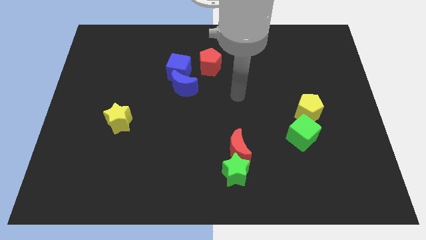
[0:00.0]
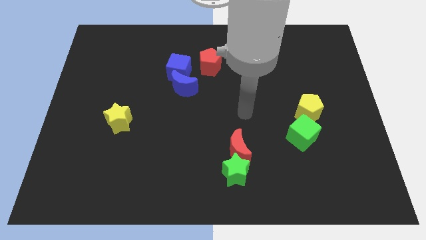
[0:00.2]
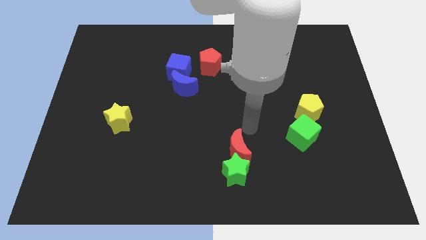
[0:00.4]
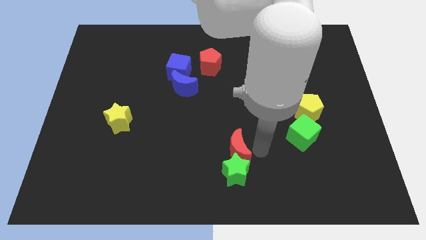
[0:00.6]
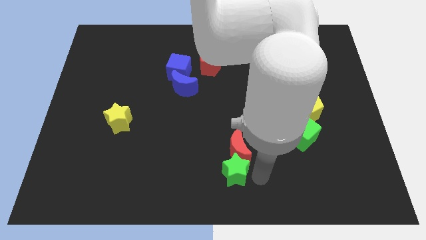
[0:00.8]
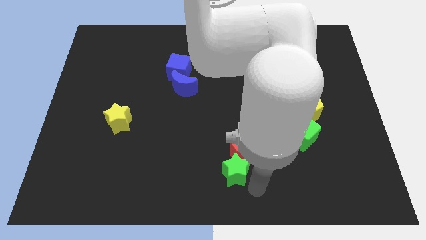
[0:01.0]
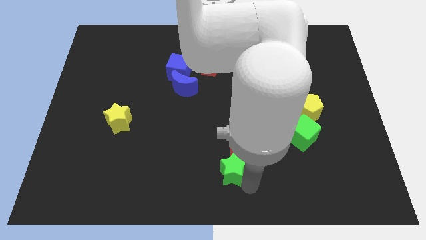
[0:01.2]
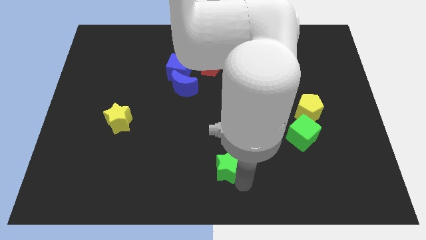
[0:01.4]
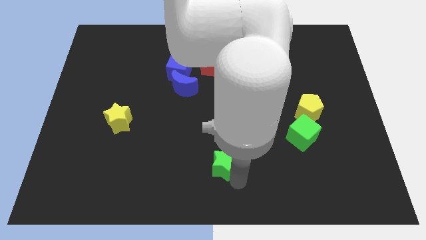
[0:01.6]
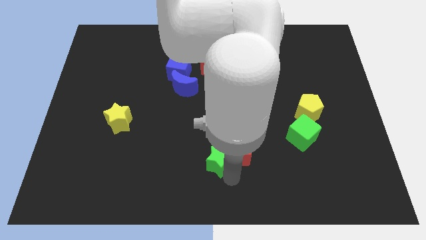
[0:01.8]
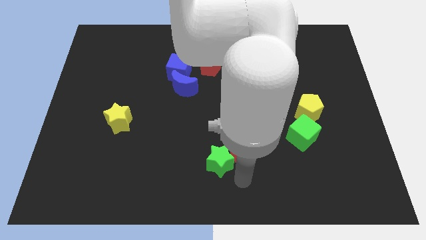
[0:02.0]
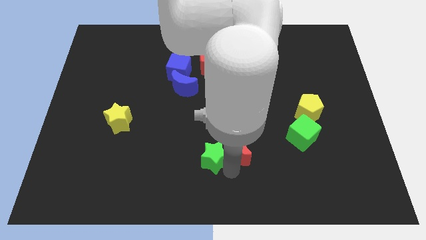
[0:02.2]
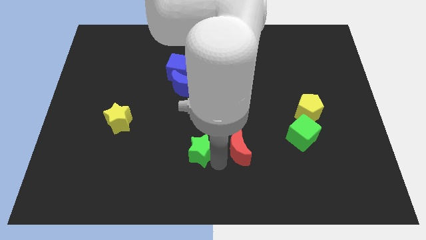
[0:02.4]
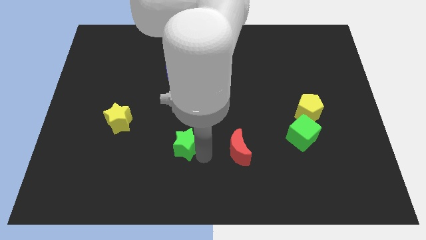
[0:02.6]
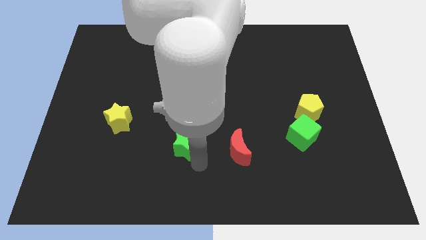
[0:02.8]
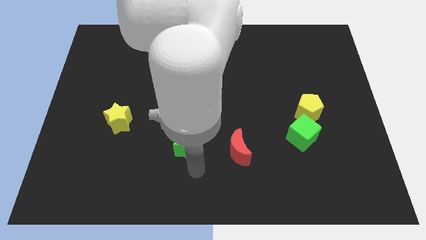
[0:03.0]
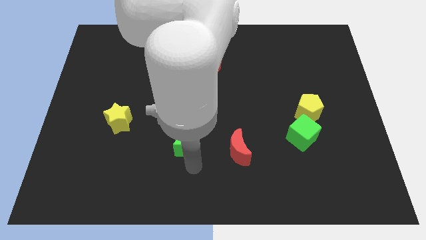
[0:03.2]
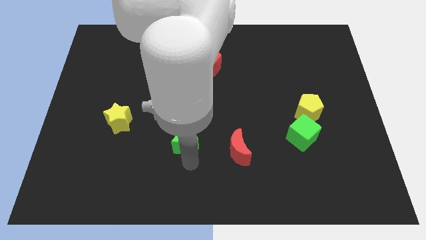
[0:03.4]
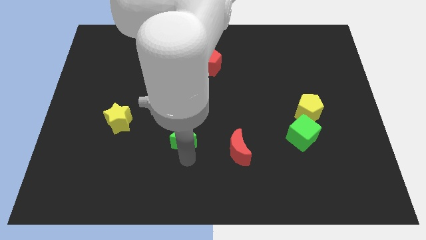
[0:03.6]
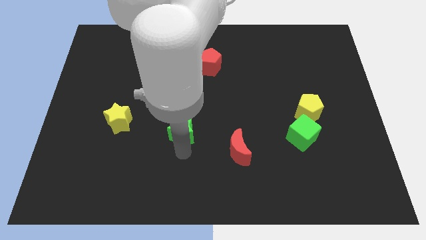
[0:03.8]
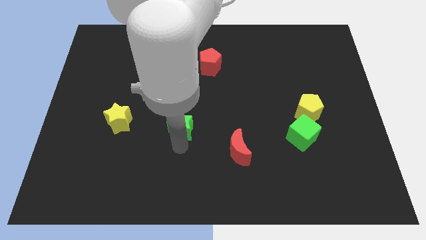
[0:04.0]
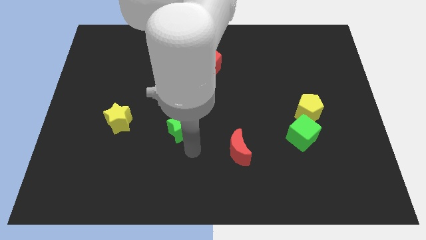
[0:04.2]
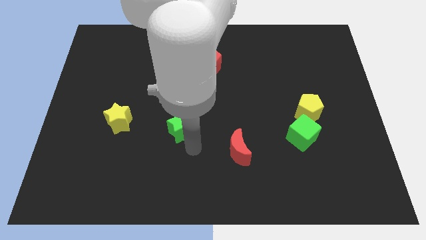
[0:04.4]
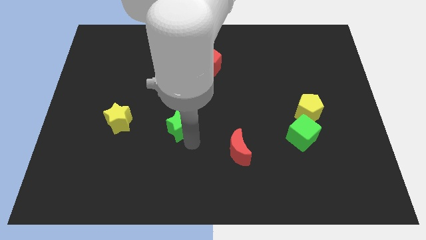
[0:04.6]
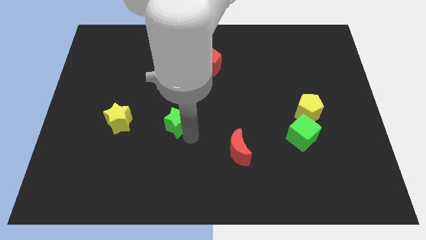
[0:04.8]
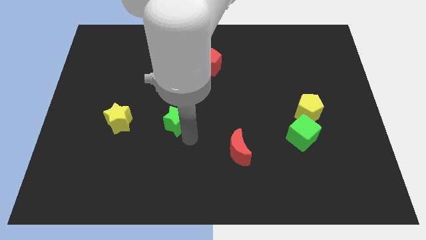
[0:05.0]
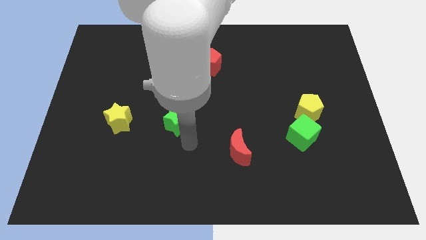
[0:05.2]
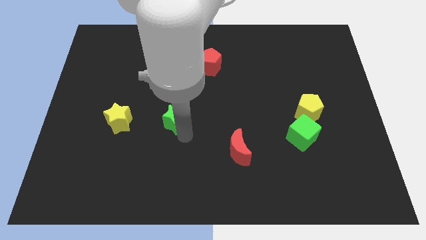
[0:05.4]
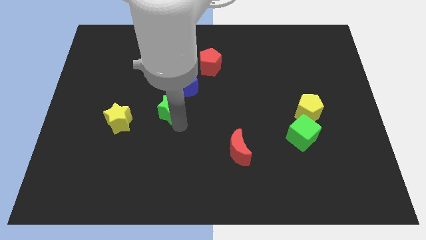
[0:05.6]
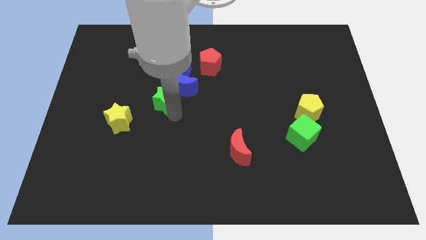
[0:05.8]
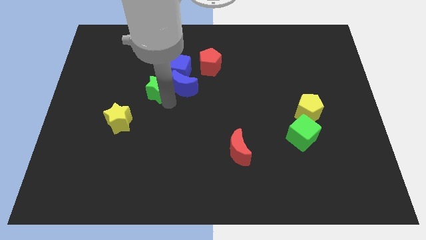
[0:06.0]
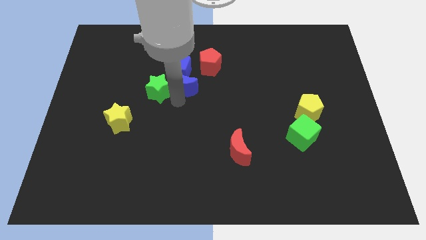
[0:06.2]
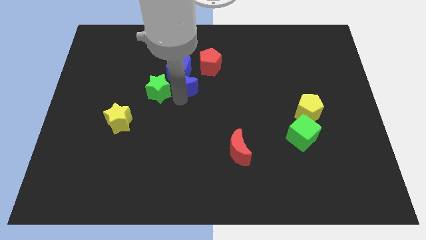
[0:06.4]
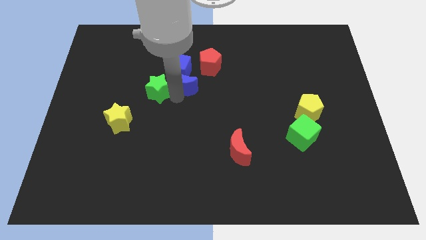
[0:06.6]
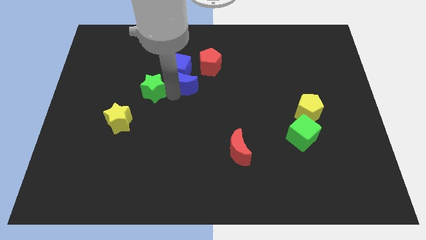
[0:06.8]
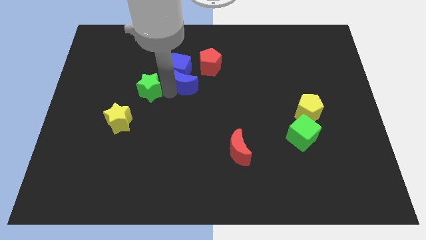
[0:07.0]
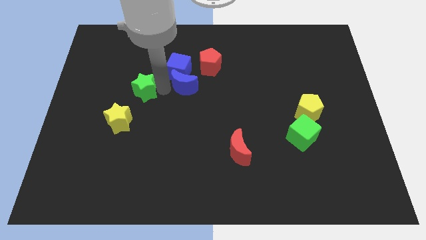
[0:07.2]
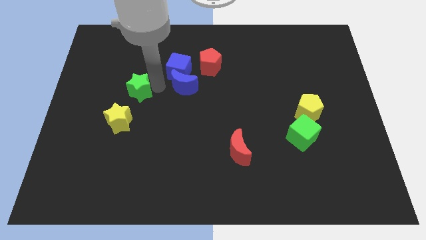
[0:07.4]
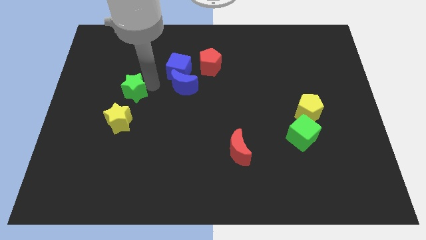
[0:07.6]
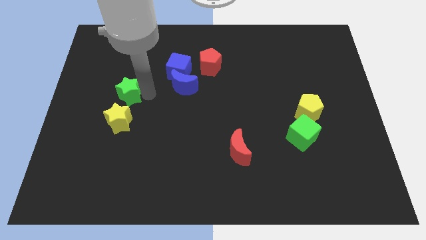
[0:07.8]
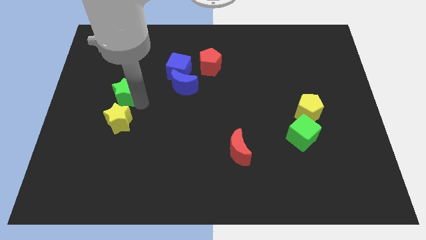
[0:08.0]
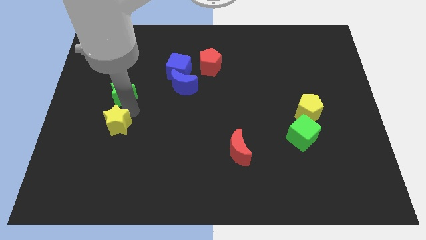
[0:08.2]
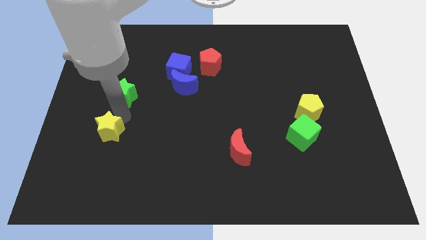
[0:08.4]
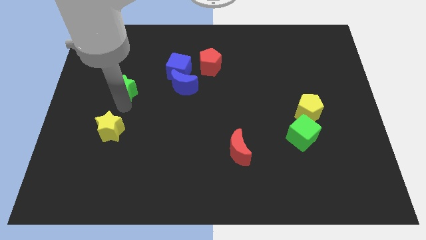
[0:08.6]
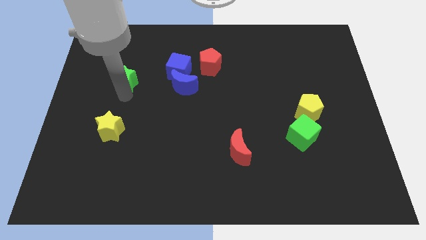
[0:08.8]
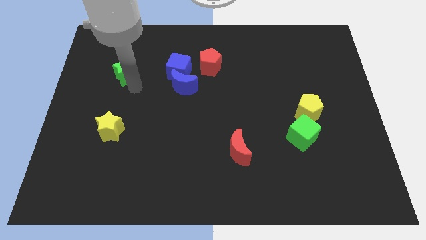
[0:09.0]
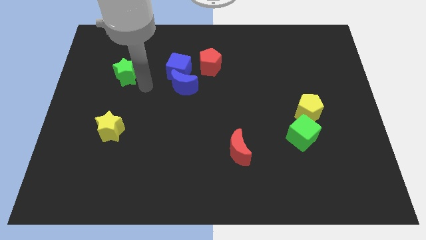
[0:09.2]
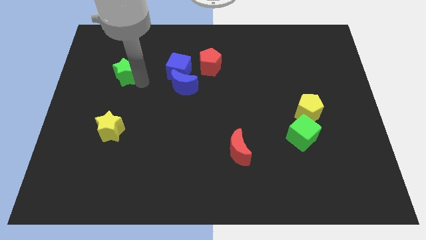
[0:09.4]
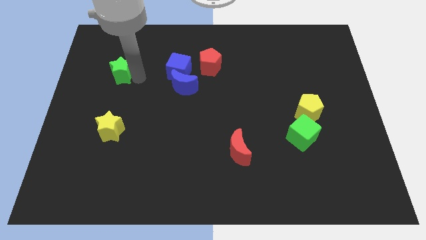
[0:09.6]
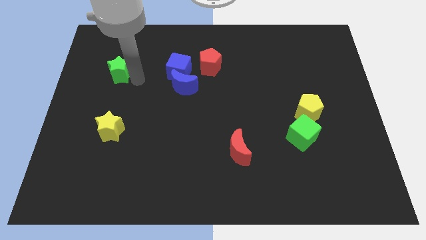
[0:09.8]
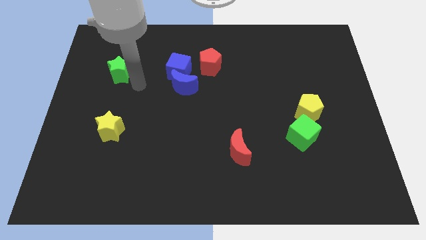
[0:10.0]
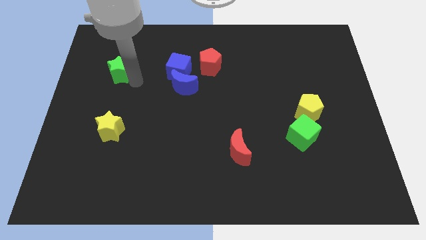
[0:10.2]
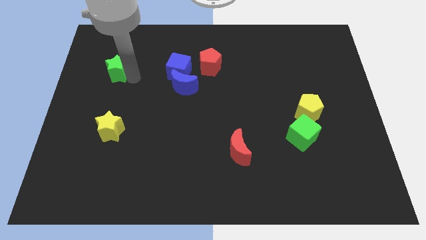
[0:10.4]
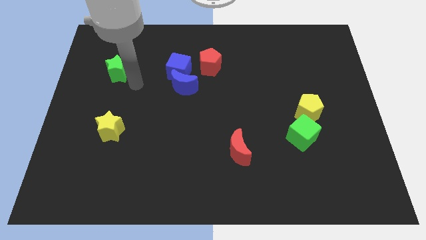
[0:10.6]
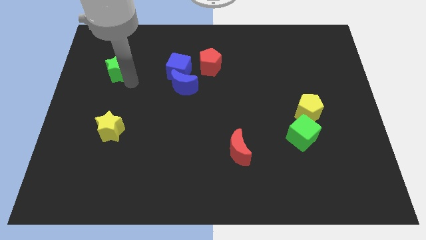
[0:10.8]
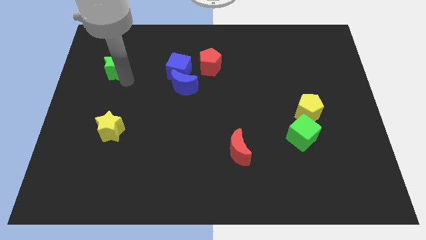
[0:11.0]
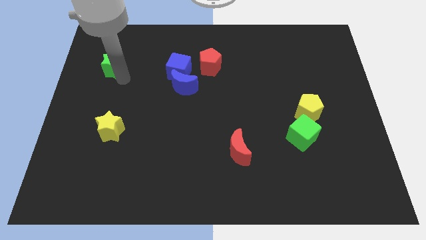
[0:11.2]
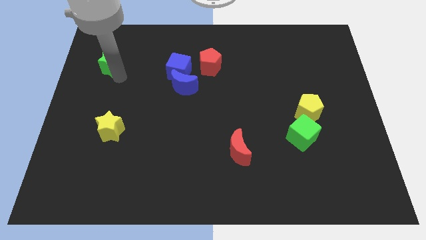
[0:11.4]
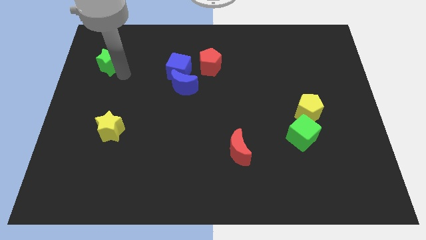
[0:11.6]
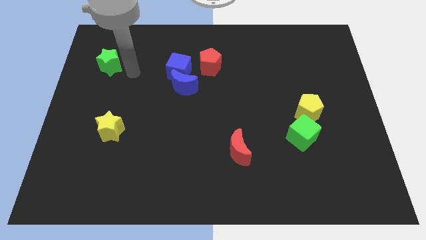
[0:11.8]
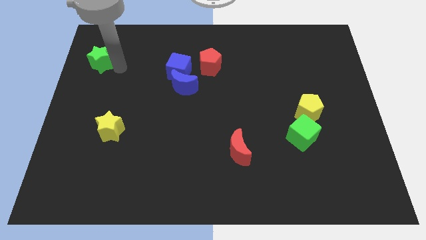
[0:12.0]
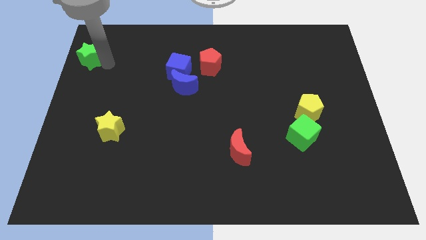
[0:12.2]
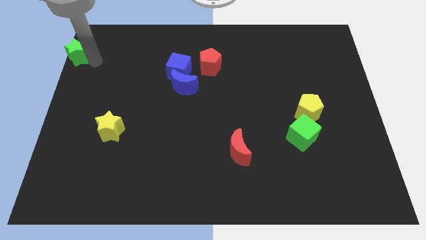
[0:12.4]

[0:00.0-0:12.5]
slide the green star to the top left corner

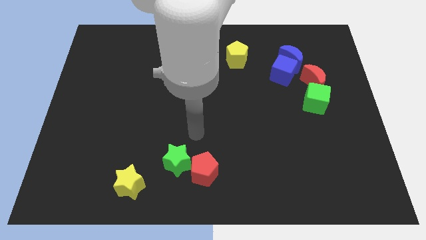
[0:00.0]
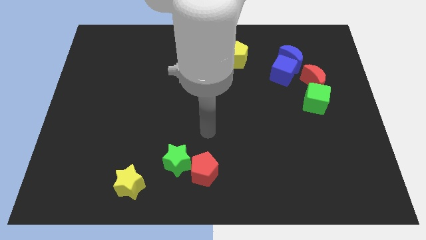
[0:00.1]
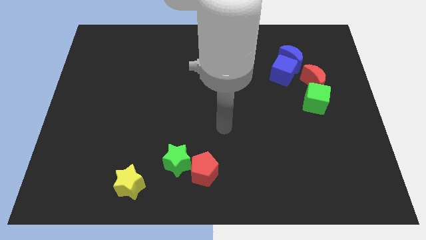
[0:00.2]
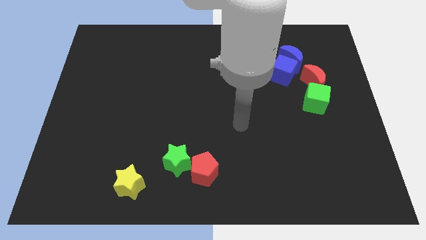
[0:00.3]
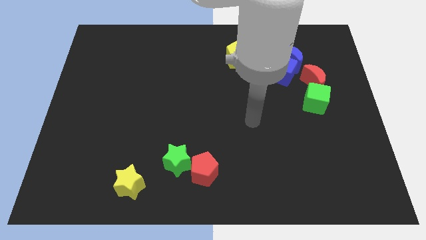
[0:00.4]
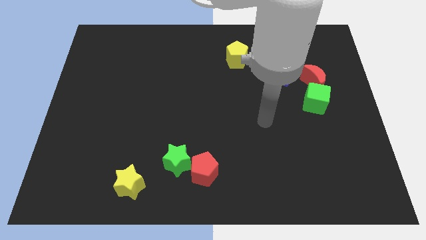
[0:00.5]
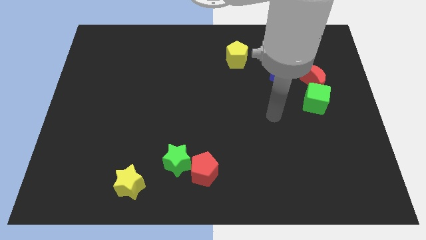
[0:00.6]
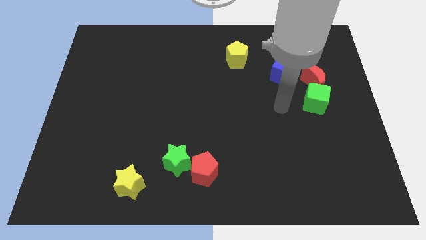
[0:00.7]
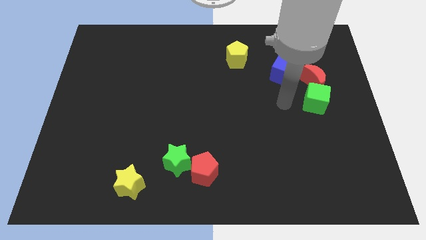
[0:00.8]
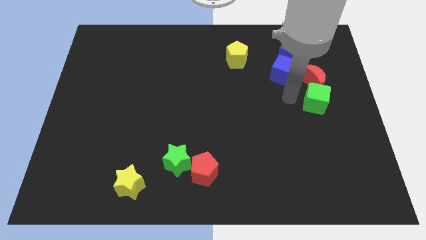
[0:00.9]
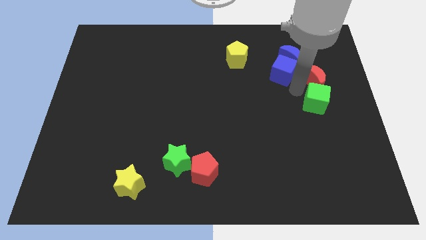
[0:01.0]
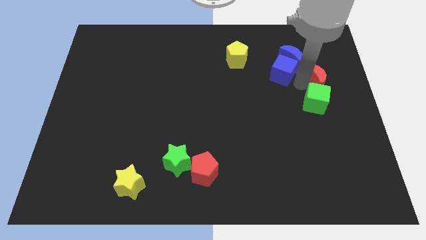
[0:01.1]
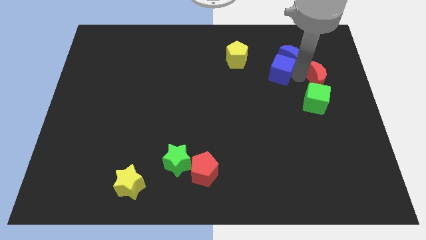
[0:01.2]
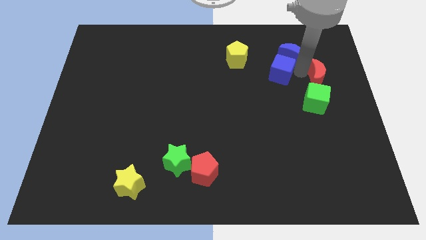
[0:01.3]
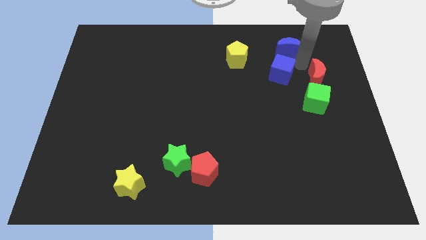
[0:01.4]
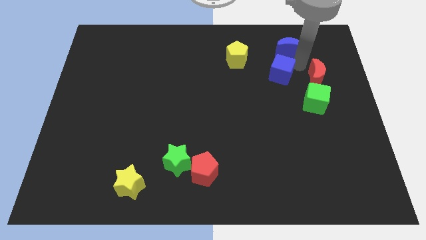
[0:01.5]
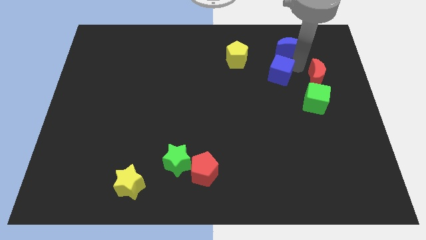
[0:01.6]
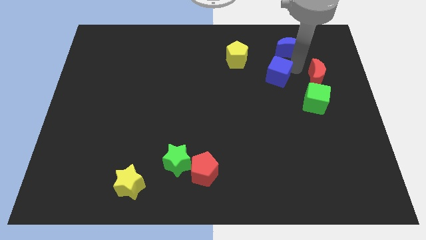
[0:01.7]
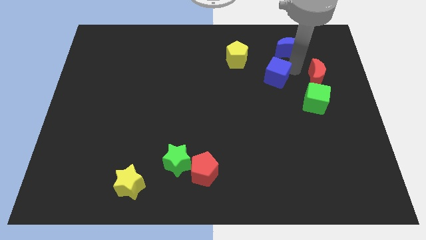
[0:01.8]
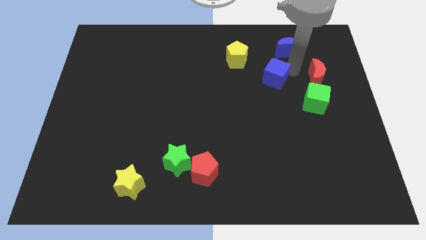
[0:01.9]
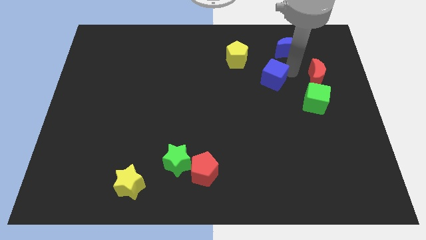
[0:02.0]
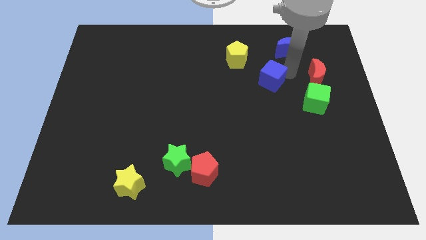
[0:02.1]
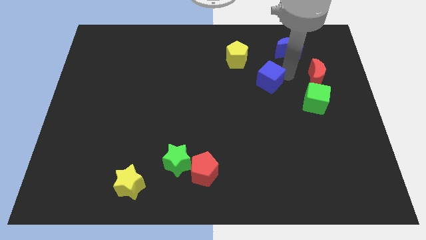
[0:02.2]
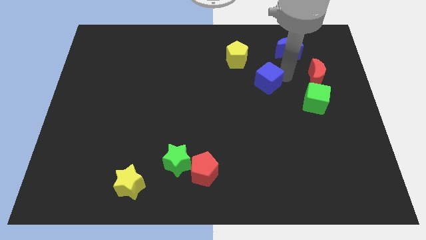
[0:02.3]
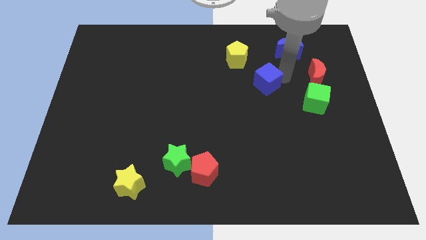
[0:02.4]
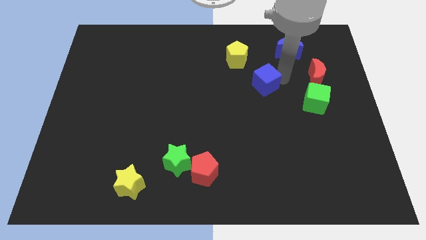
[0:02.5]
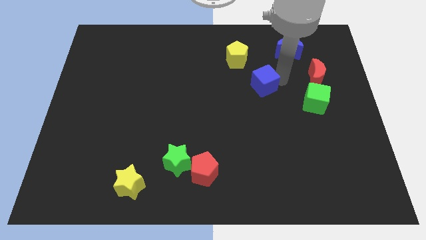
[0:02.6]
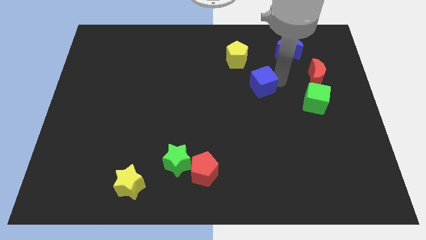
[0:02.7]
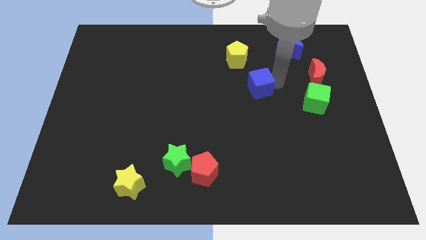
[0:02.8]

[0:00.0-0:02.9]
slide the blue cube to the center
